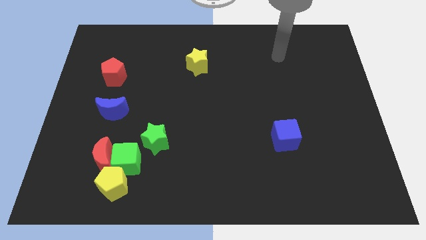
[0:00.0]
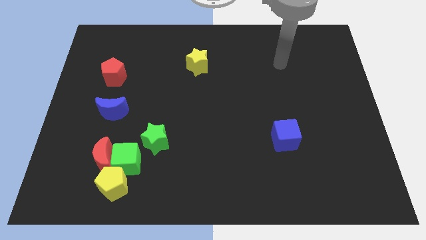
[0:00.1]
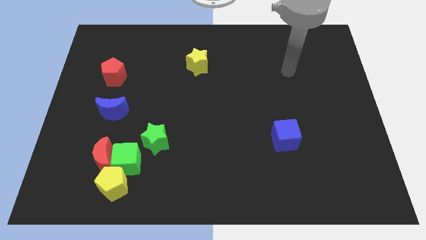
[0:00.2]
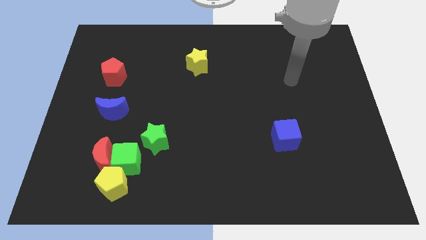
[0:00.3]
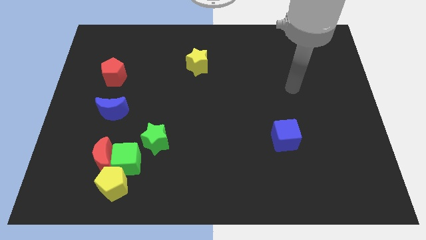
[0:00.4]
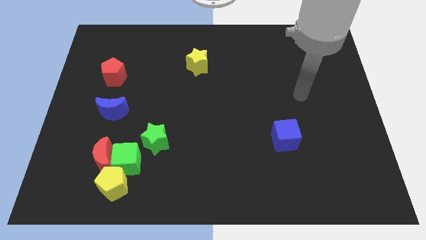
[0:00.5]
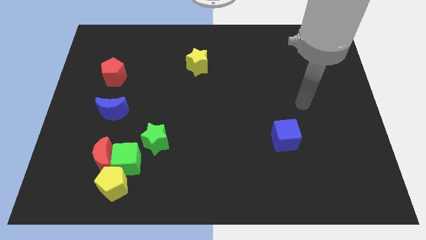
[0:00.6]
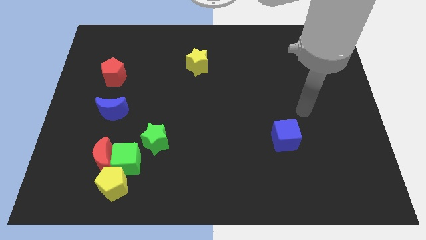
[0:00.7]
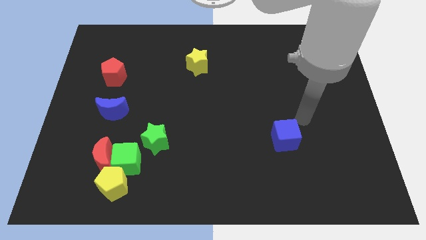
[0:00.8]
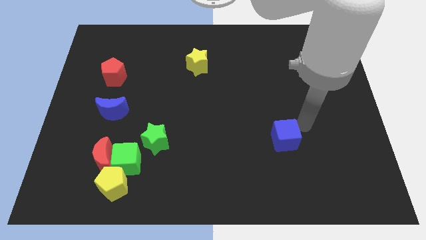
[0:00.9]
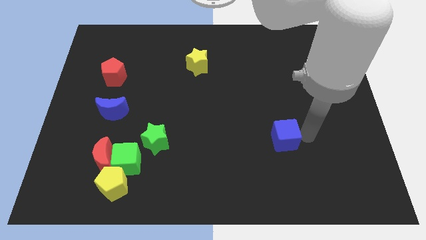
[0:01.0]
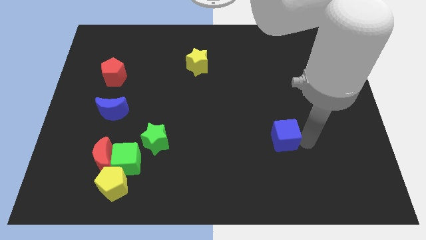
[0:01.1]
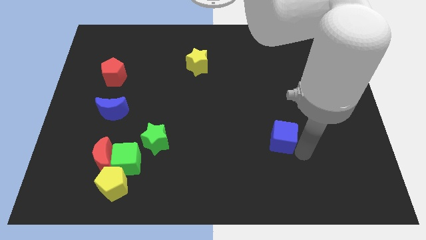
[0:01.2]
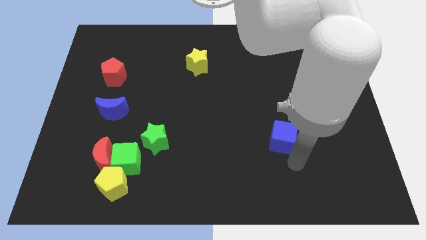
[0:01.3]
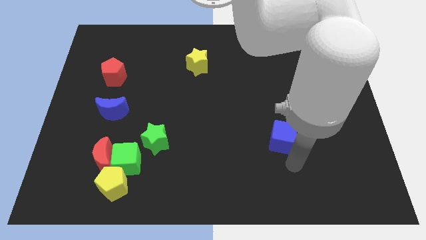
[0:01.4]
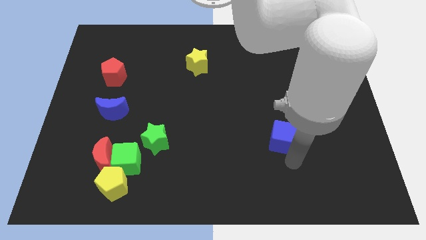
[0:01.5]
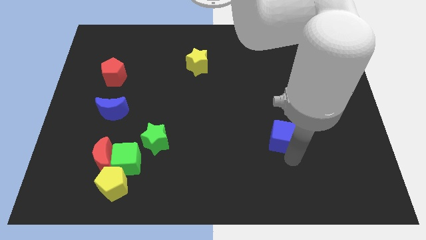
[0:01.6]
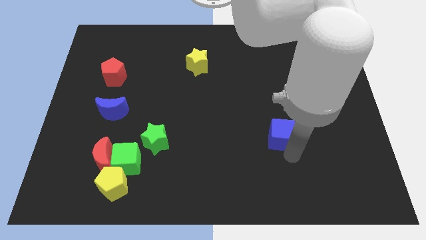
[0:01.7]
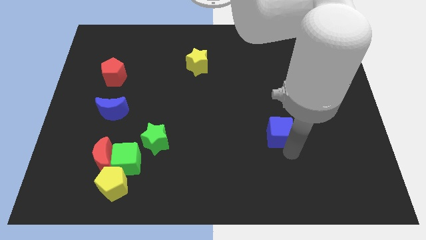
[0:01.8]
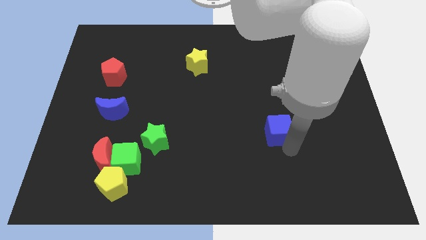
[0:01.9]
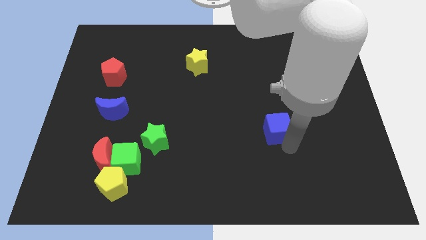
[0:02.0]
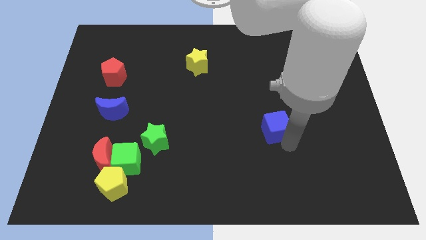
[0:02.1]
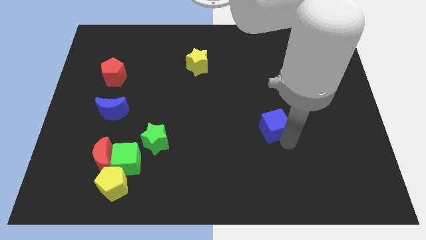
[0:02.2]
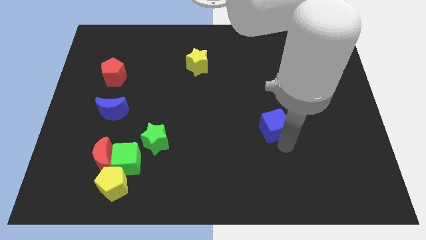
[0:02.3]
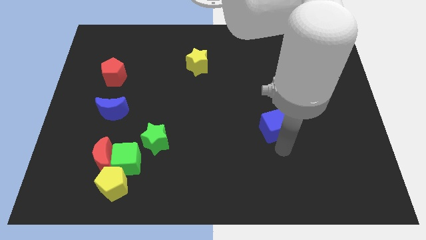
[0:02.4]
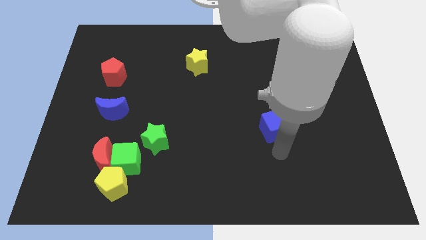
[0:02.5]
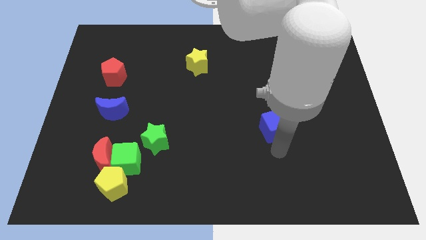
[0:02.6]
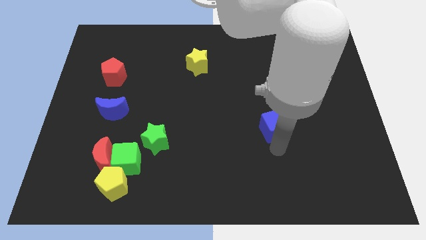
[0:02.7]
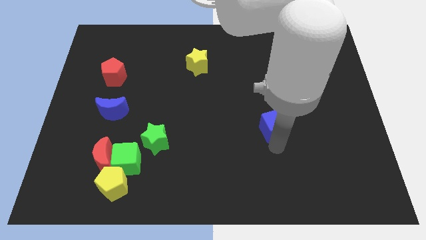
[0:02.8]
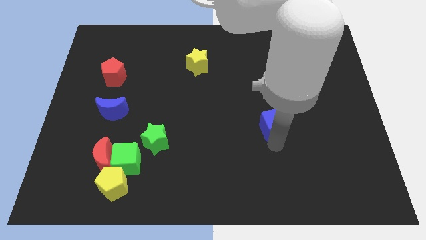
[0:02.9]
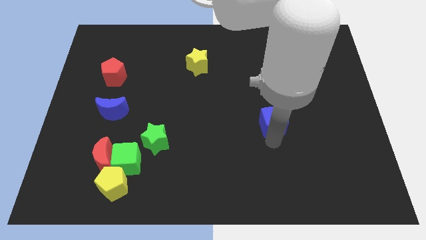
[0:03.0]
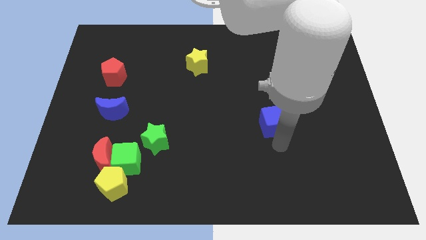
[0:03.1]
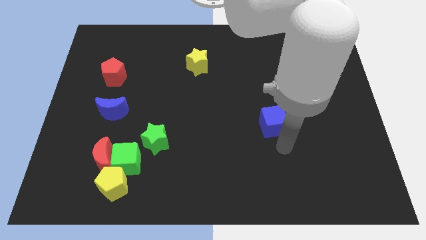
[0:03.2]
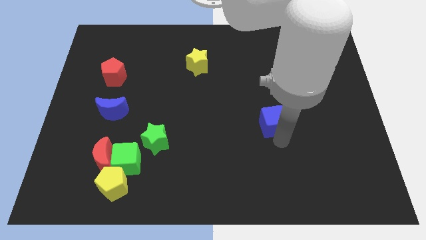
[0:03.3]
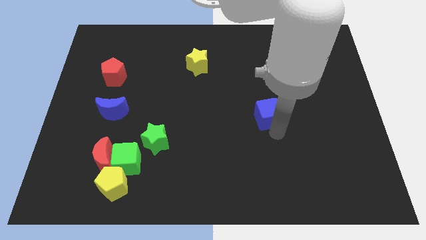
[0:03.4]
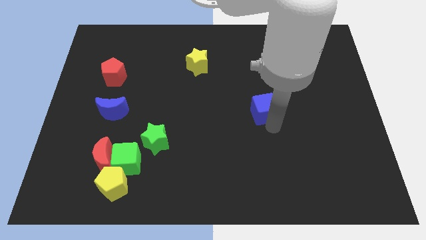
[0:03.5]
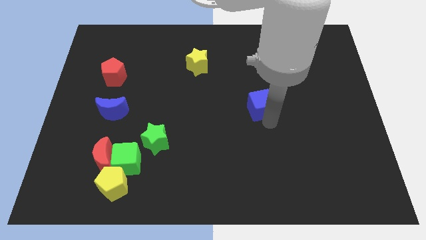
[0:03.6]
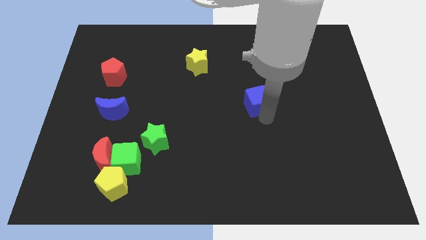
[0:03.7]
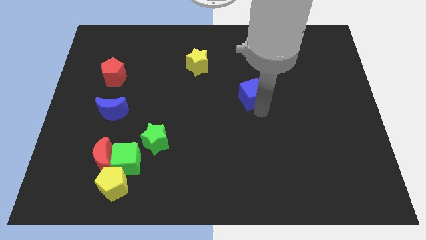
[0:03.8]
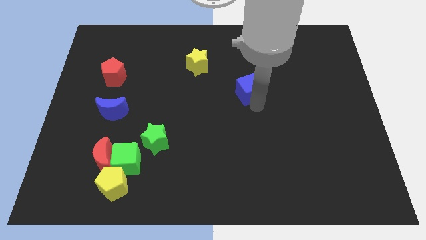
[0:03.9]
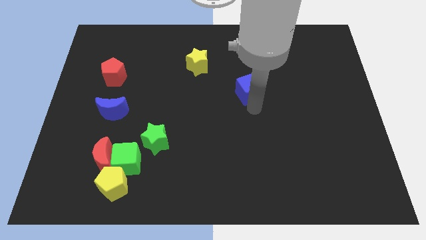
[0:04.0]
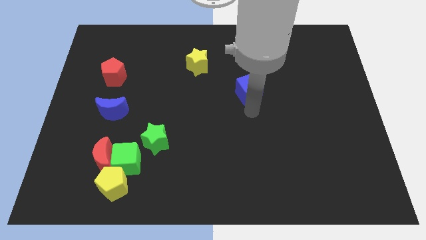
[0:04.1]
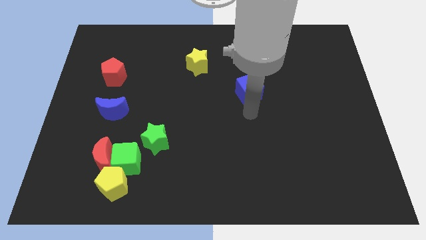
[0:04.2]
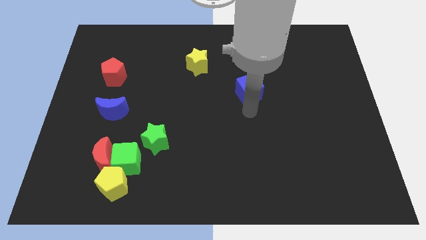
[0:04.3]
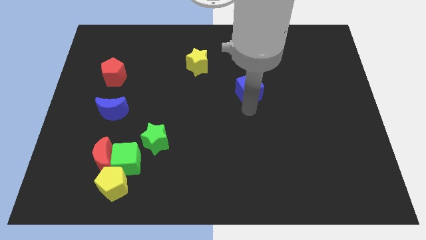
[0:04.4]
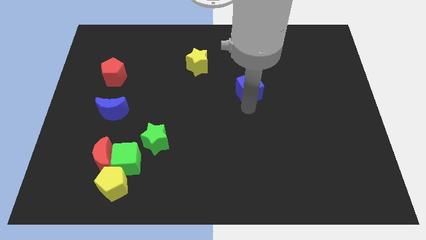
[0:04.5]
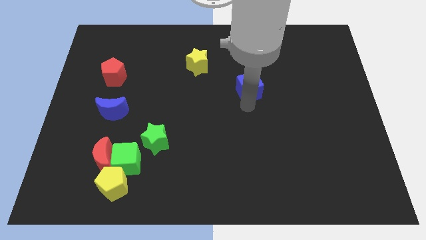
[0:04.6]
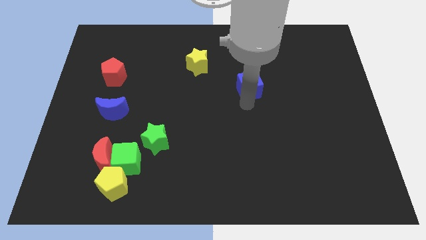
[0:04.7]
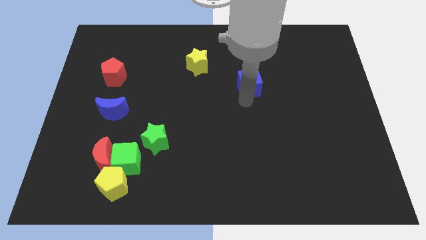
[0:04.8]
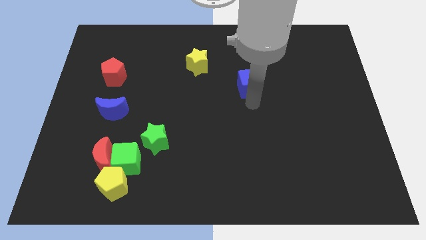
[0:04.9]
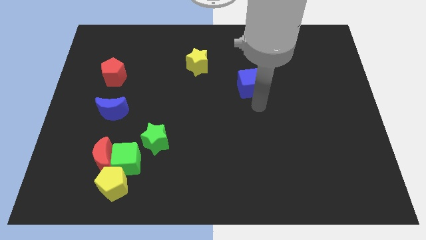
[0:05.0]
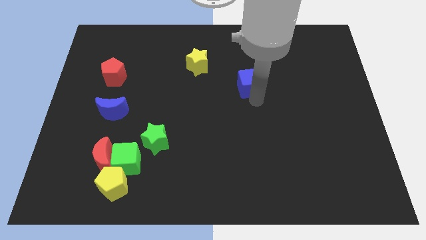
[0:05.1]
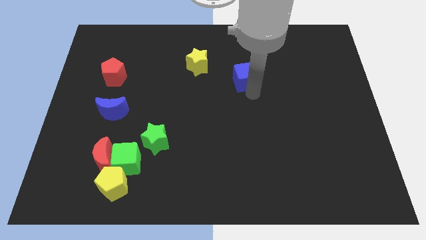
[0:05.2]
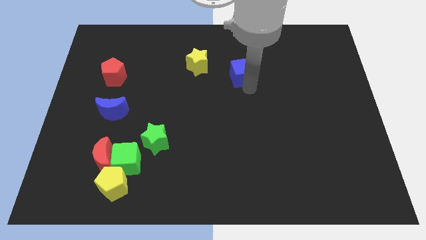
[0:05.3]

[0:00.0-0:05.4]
slide the blue cube to the right of the yellow star

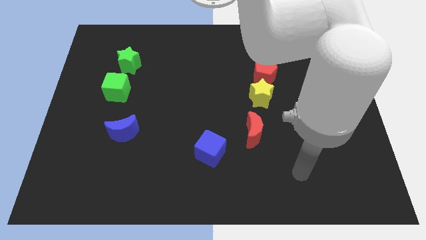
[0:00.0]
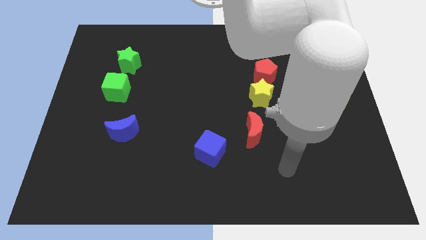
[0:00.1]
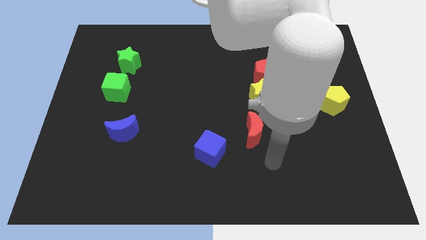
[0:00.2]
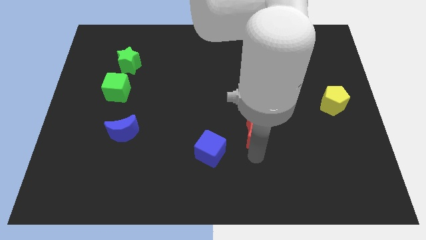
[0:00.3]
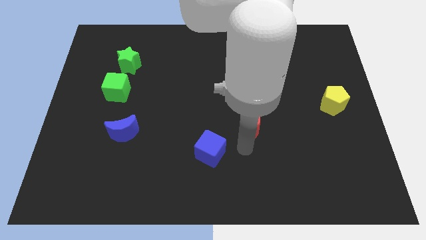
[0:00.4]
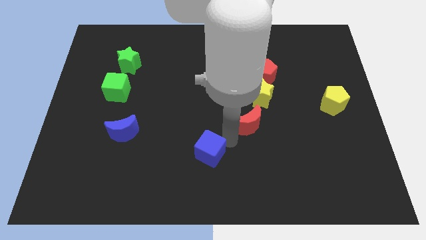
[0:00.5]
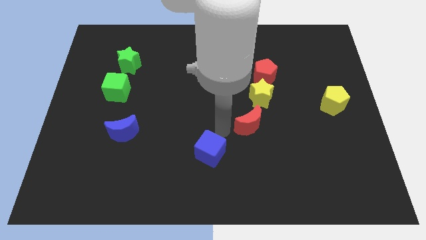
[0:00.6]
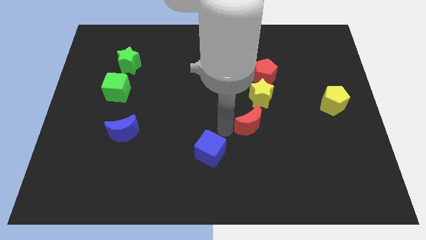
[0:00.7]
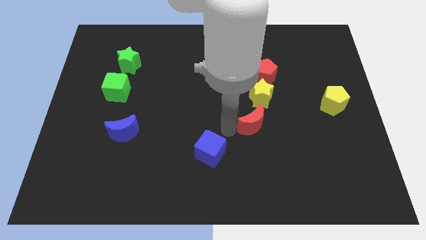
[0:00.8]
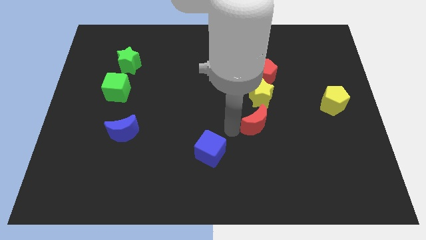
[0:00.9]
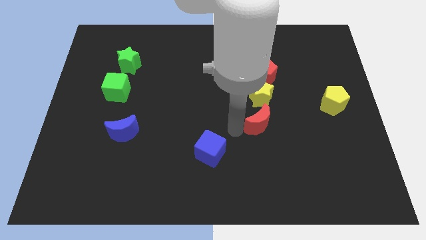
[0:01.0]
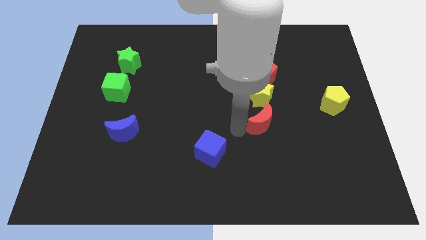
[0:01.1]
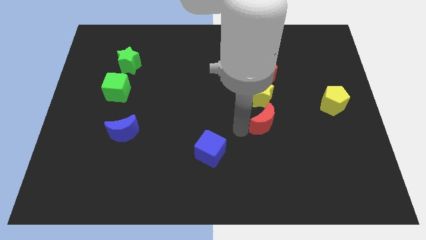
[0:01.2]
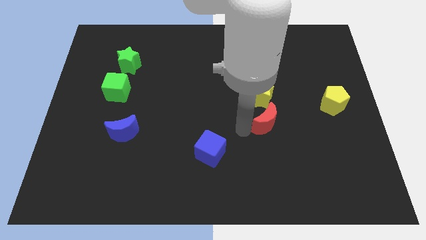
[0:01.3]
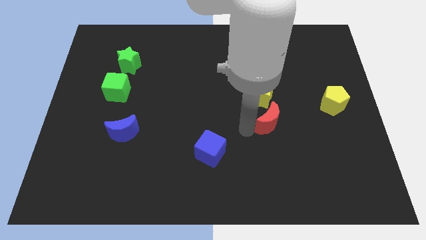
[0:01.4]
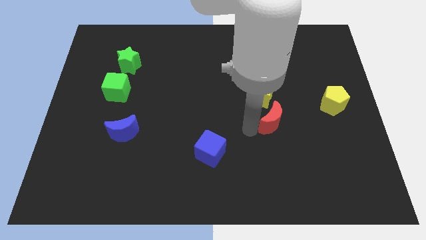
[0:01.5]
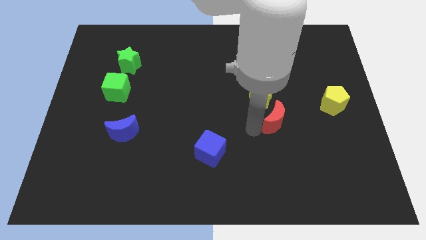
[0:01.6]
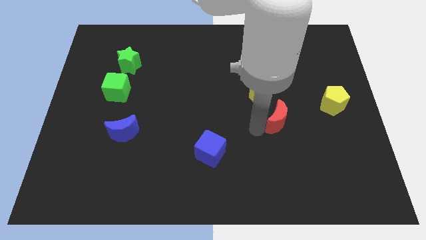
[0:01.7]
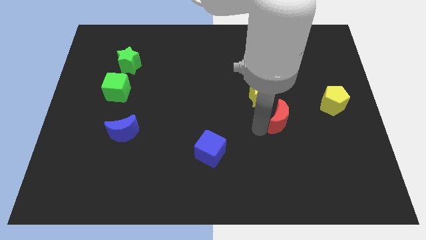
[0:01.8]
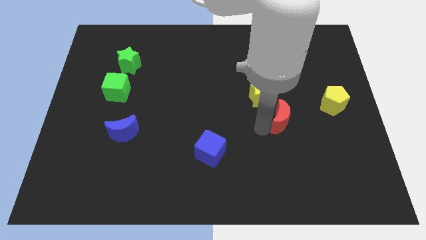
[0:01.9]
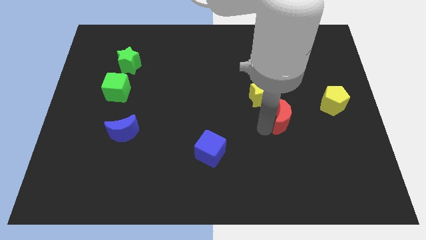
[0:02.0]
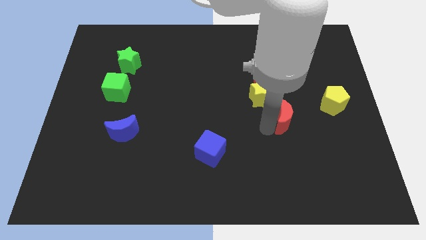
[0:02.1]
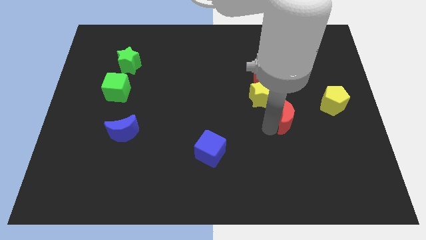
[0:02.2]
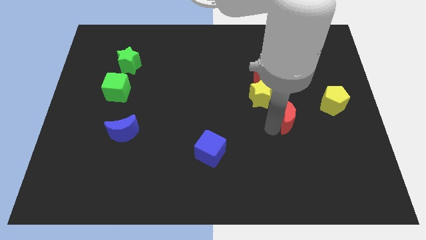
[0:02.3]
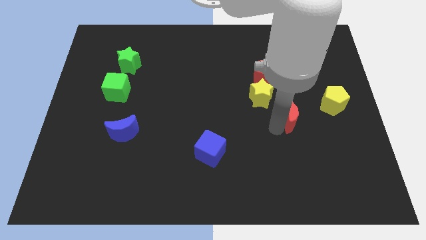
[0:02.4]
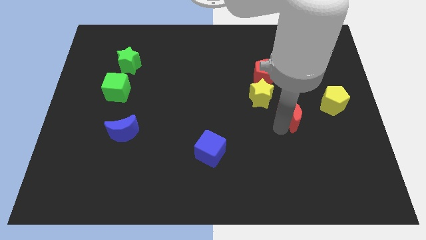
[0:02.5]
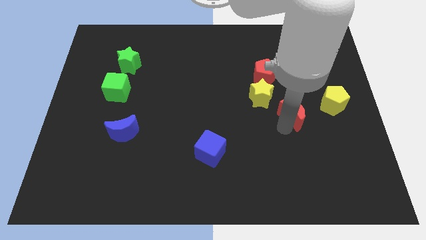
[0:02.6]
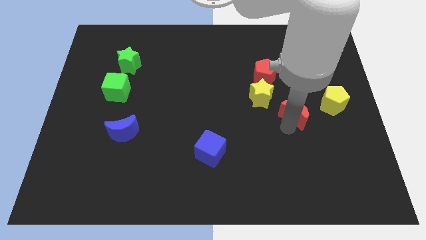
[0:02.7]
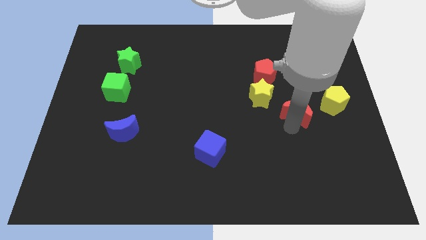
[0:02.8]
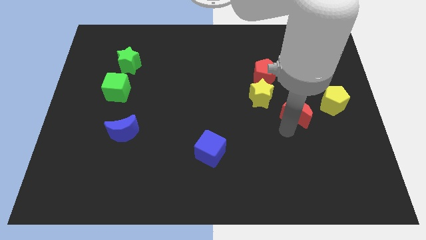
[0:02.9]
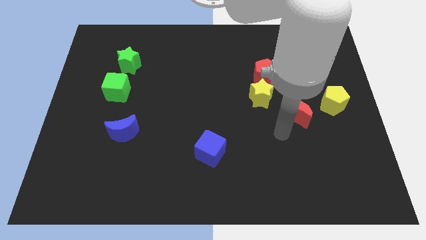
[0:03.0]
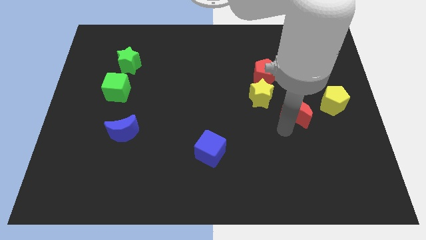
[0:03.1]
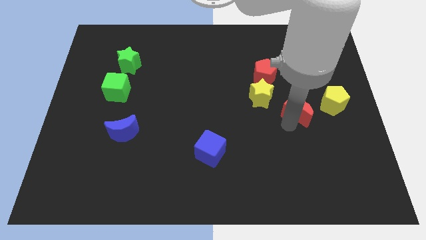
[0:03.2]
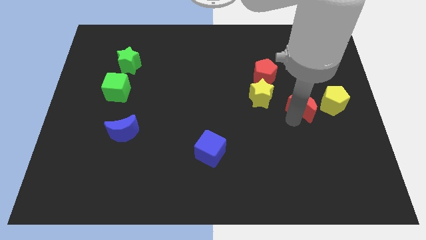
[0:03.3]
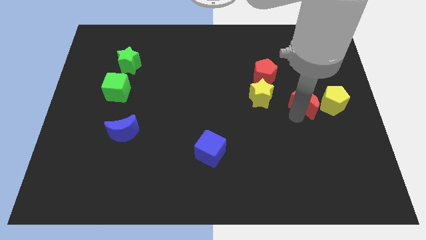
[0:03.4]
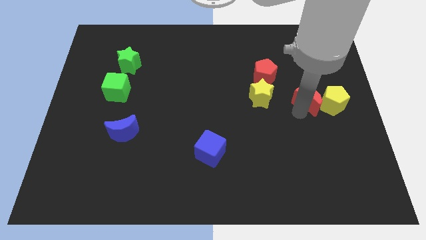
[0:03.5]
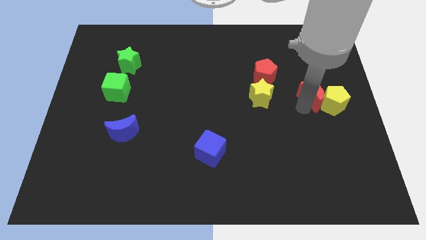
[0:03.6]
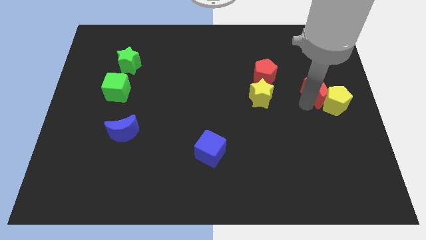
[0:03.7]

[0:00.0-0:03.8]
put the red moon to the top of the yellow pentagon
